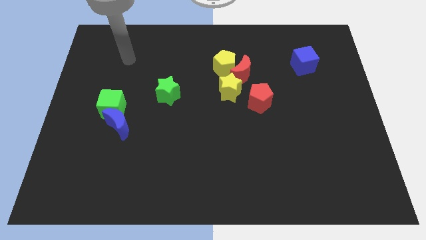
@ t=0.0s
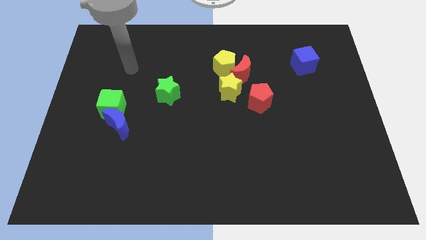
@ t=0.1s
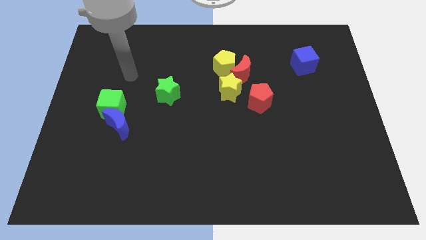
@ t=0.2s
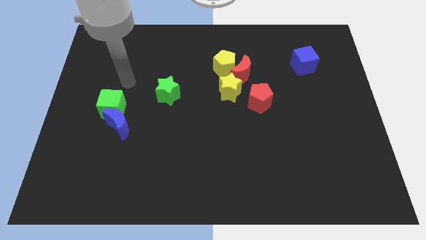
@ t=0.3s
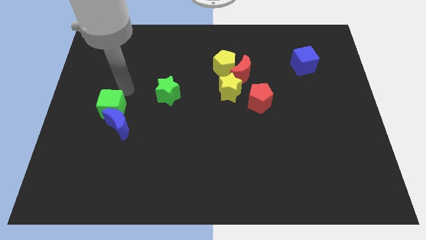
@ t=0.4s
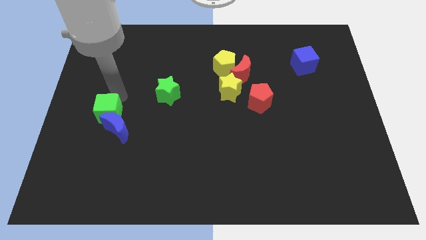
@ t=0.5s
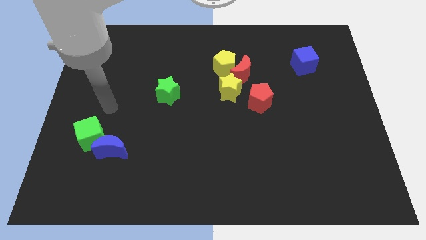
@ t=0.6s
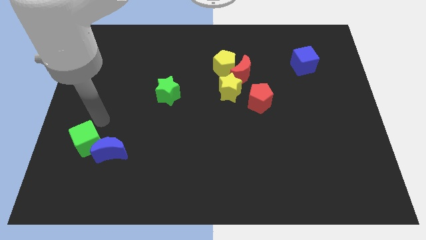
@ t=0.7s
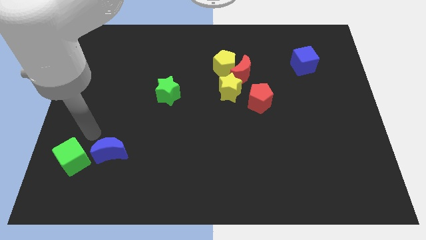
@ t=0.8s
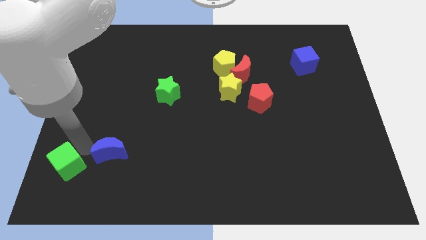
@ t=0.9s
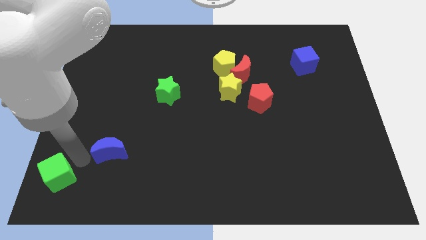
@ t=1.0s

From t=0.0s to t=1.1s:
separate the blue moon from the green cube

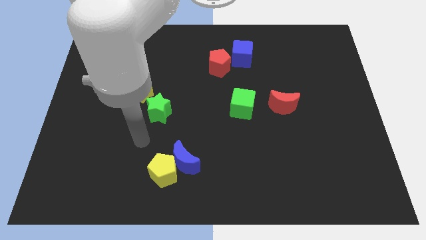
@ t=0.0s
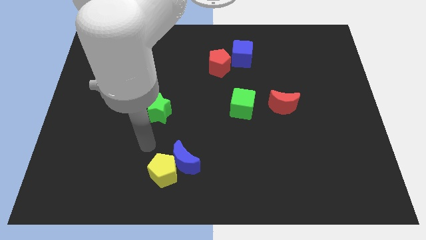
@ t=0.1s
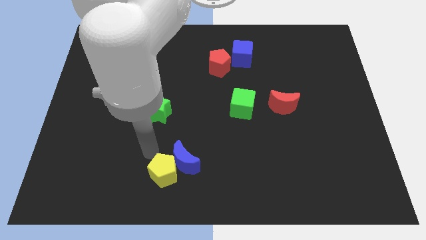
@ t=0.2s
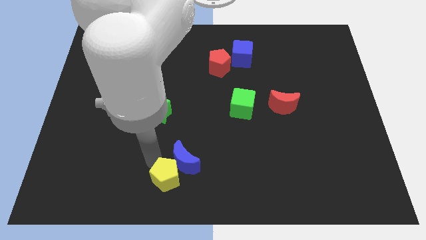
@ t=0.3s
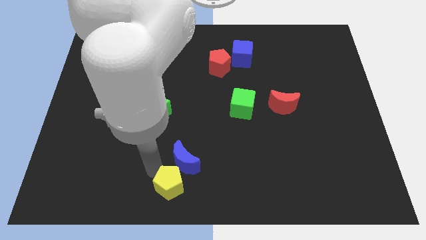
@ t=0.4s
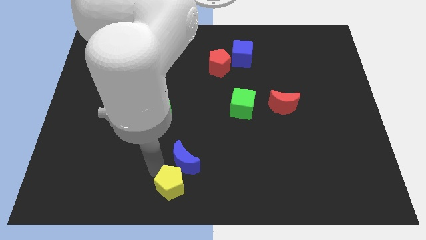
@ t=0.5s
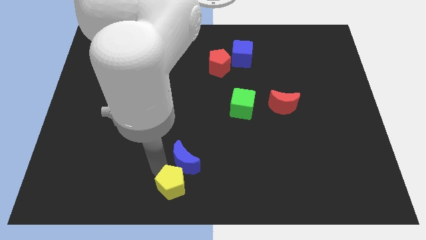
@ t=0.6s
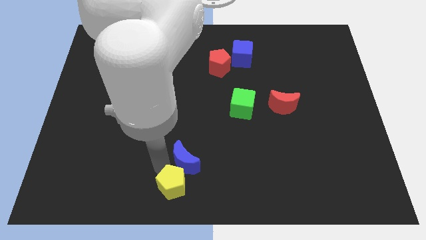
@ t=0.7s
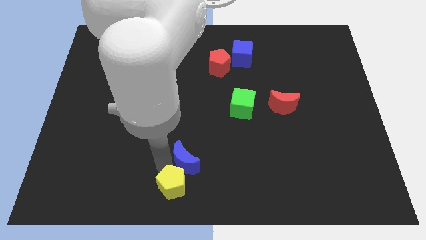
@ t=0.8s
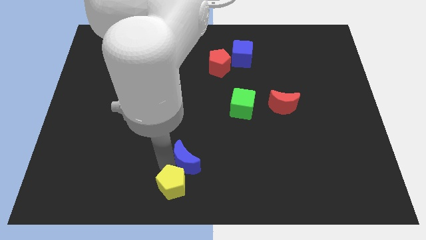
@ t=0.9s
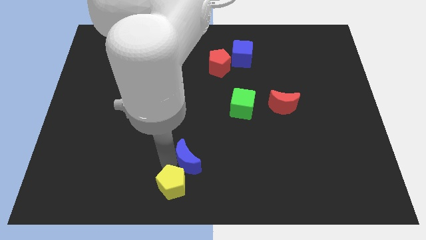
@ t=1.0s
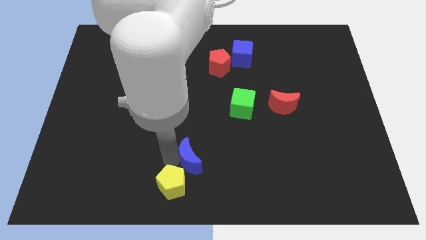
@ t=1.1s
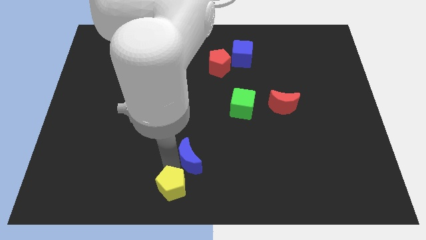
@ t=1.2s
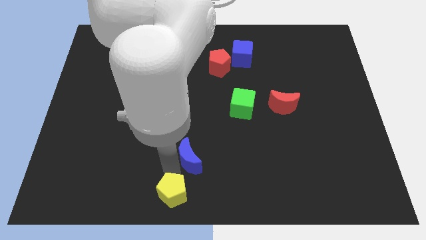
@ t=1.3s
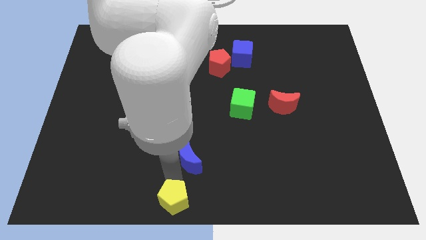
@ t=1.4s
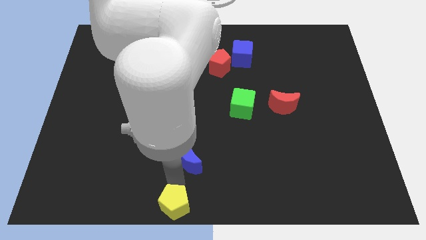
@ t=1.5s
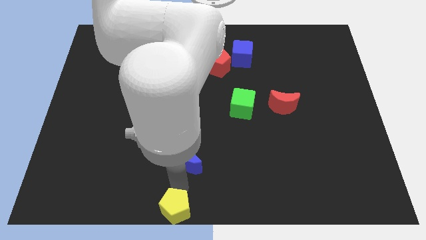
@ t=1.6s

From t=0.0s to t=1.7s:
move the blue moon away from the yellow pentagon

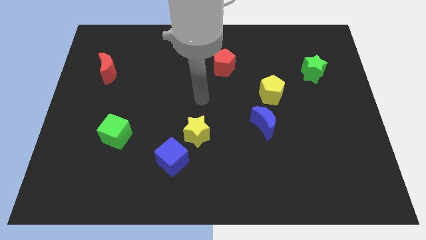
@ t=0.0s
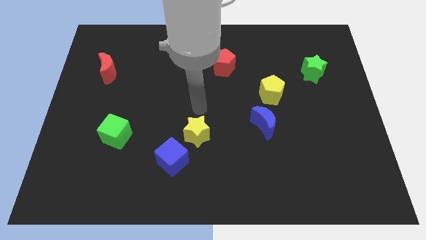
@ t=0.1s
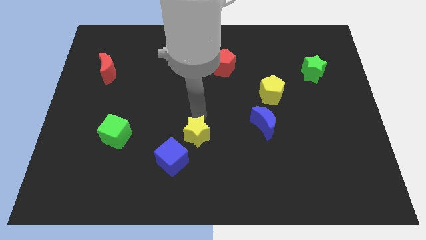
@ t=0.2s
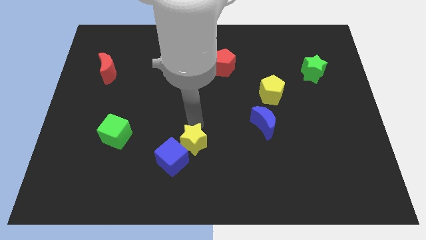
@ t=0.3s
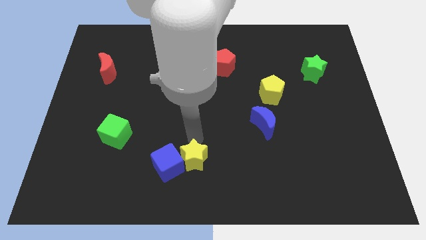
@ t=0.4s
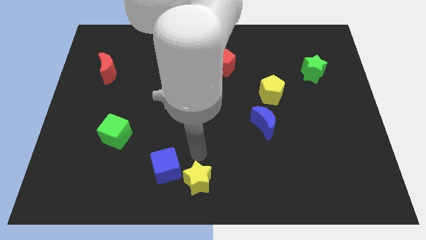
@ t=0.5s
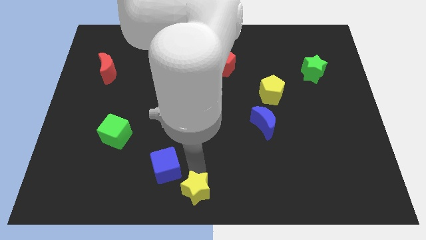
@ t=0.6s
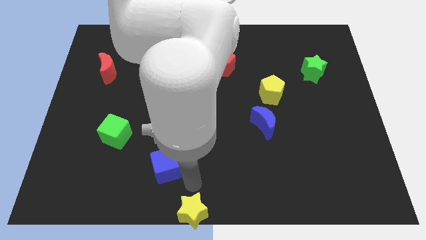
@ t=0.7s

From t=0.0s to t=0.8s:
pull the blue cube apart from the yellow star

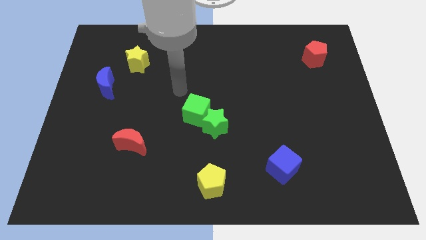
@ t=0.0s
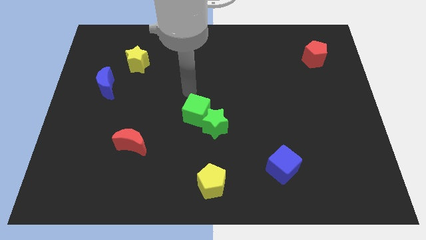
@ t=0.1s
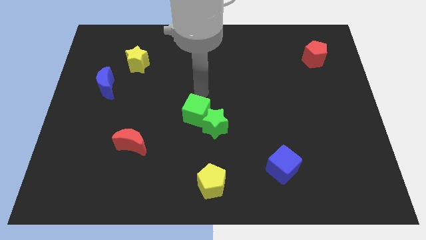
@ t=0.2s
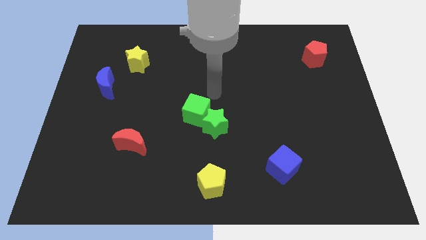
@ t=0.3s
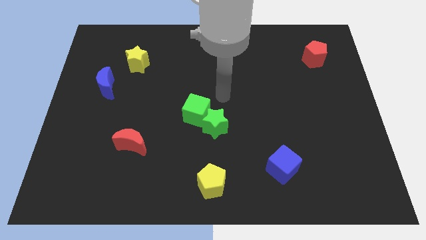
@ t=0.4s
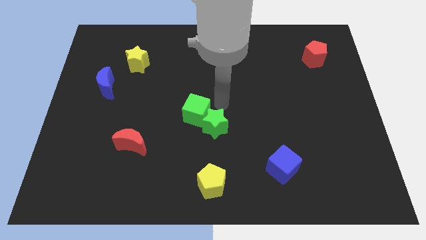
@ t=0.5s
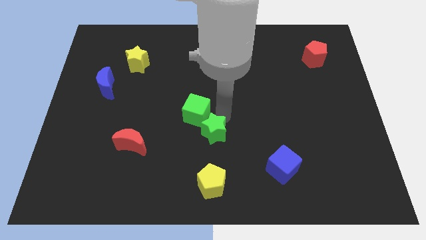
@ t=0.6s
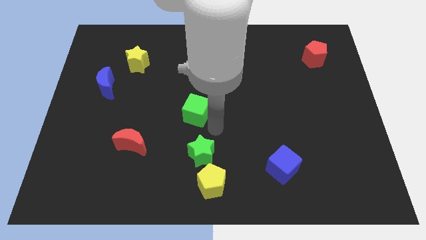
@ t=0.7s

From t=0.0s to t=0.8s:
move the green cube away from the green star

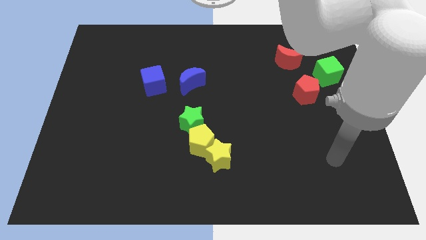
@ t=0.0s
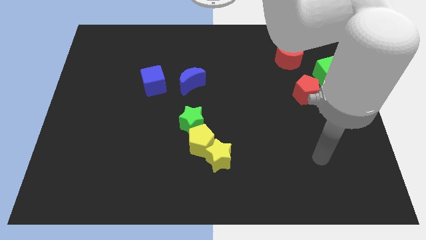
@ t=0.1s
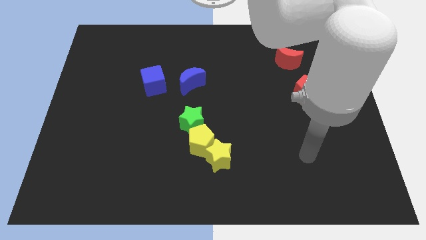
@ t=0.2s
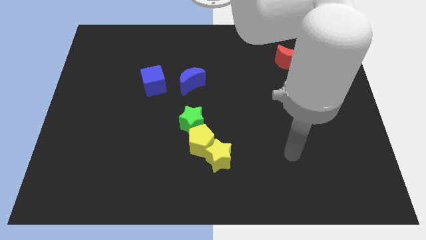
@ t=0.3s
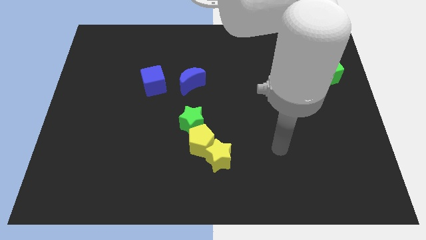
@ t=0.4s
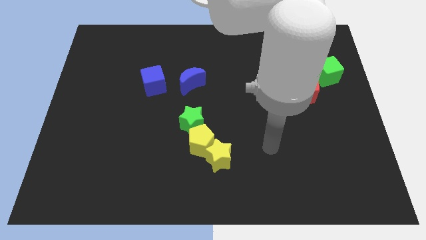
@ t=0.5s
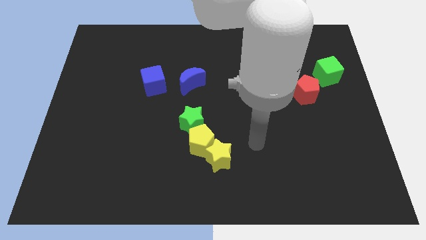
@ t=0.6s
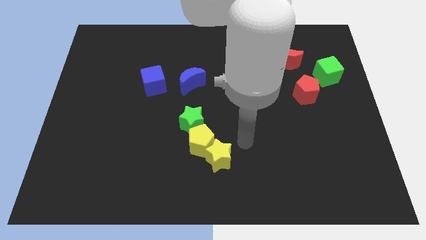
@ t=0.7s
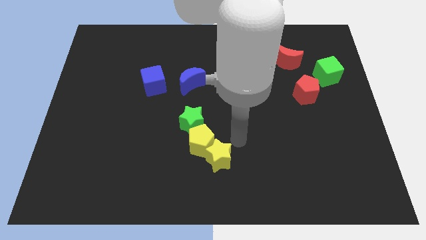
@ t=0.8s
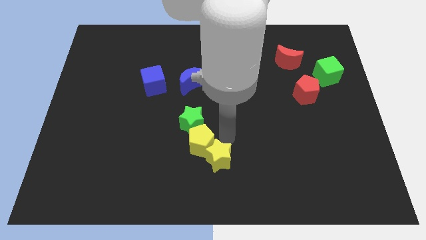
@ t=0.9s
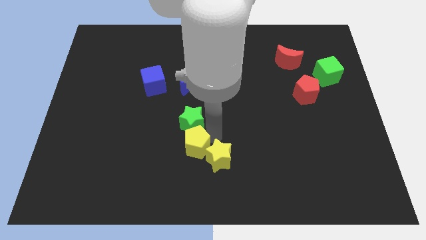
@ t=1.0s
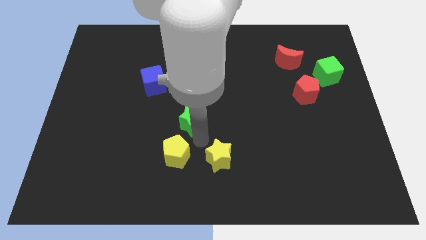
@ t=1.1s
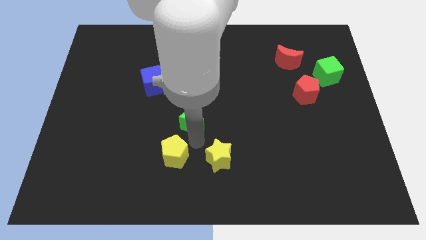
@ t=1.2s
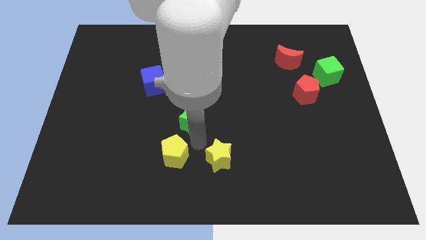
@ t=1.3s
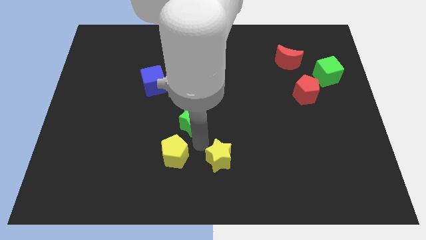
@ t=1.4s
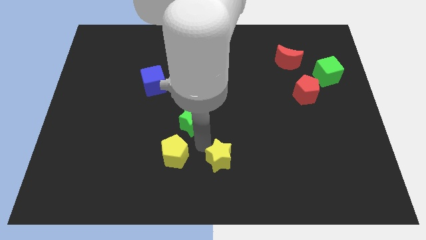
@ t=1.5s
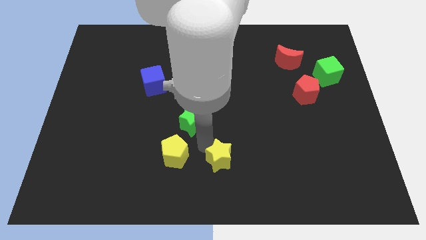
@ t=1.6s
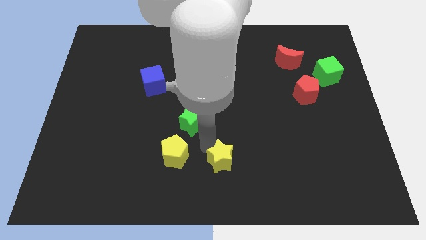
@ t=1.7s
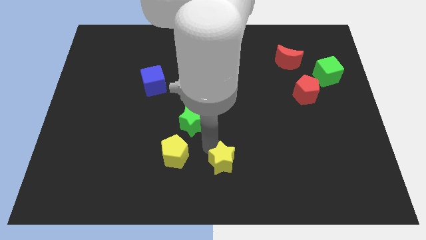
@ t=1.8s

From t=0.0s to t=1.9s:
pull the yellow star apart from the yellow pentagon

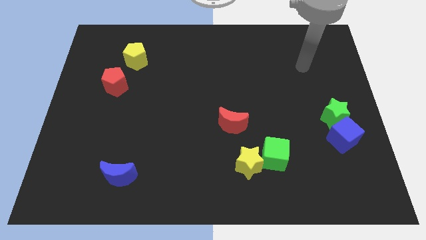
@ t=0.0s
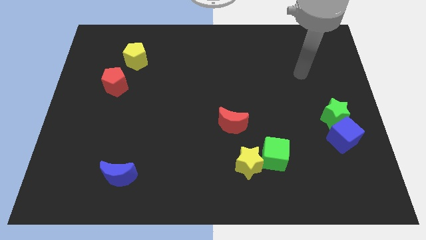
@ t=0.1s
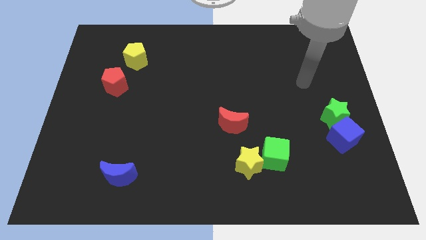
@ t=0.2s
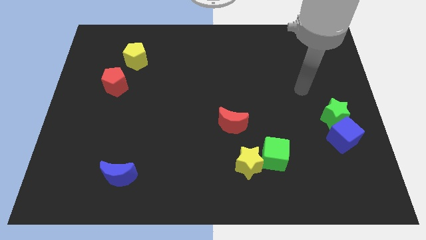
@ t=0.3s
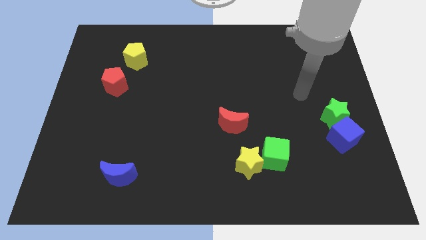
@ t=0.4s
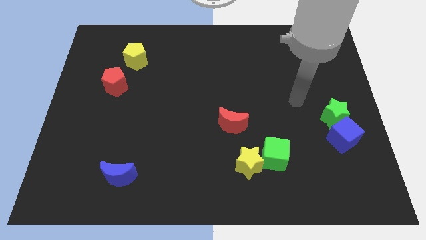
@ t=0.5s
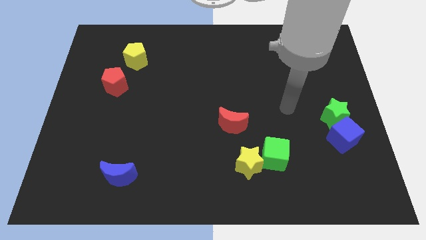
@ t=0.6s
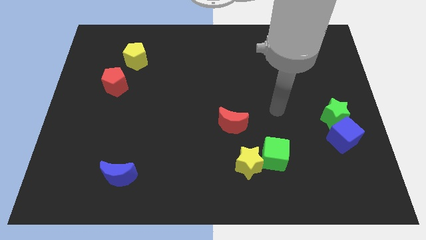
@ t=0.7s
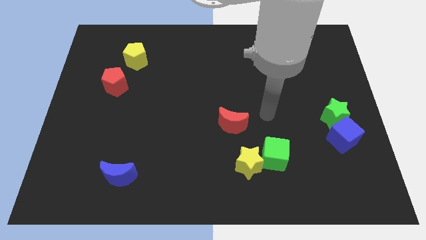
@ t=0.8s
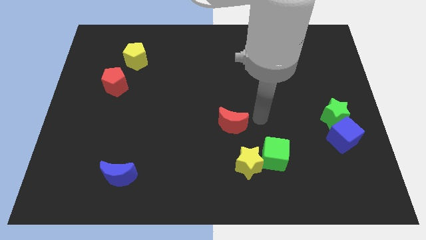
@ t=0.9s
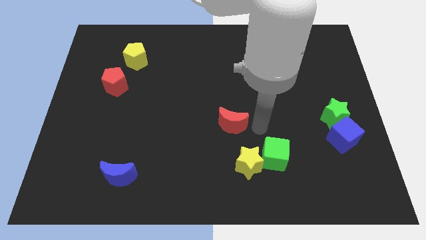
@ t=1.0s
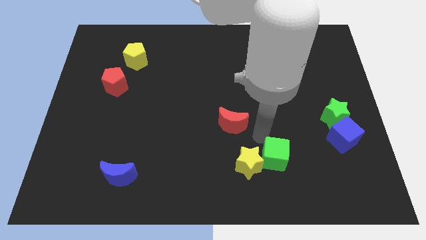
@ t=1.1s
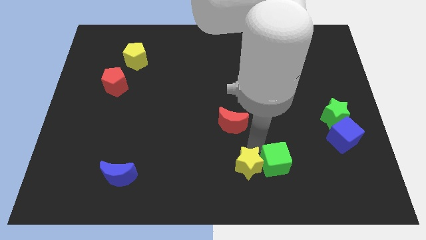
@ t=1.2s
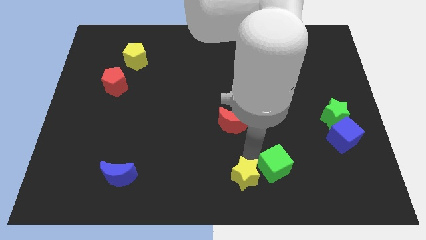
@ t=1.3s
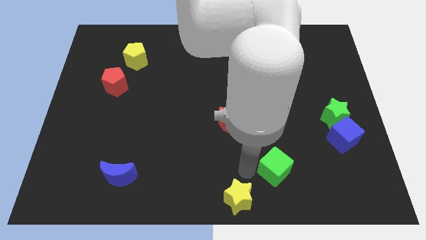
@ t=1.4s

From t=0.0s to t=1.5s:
separate the green cube from the yellow star

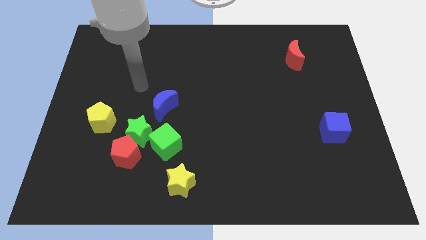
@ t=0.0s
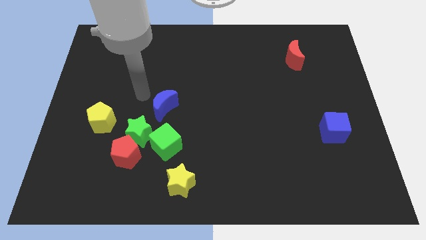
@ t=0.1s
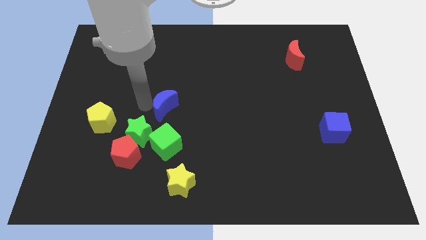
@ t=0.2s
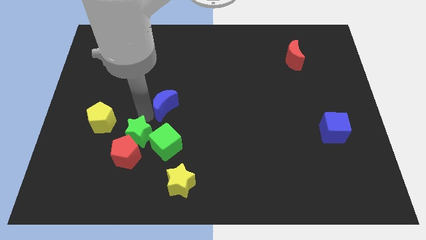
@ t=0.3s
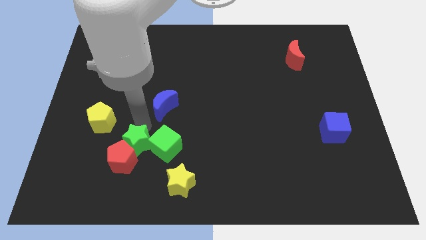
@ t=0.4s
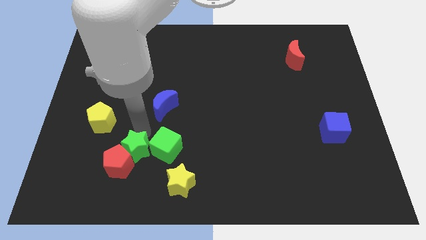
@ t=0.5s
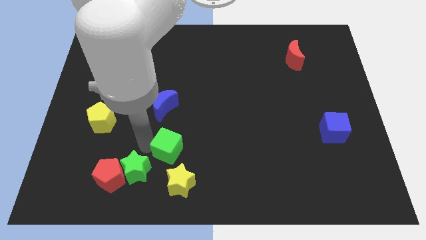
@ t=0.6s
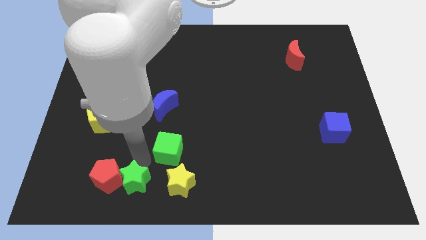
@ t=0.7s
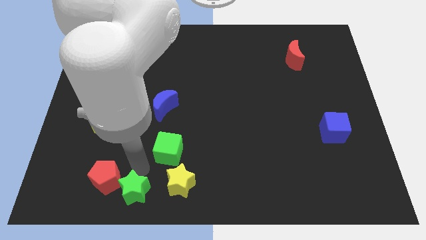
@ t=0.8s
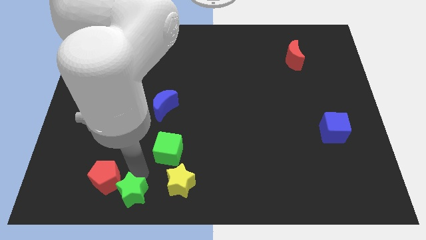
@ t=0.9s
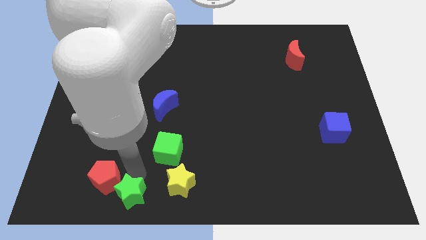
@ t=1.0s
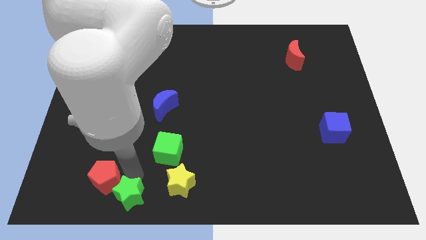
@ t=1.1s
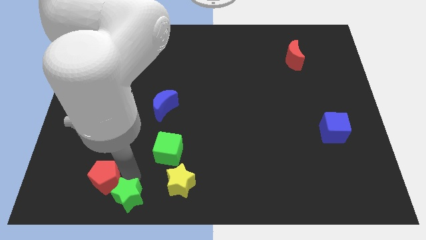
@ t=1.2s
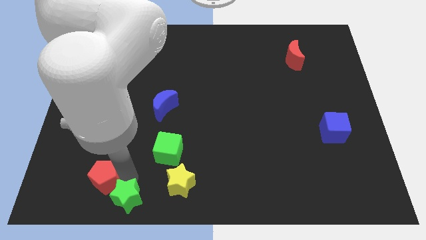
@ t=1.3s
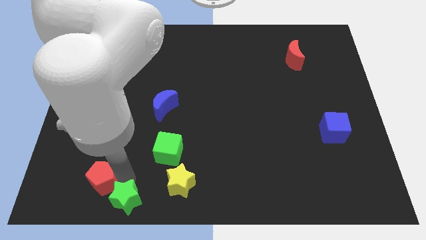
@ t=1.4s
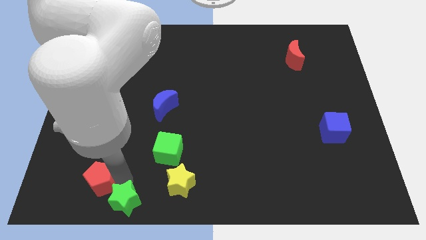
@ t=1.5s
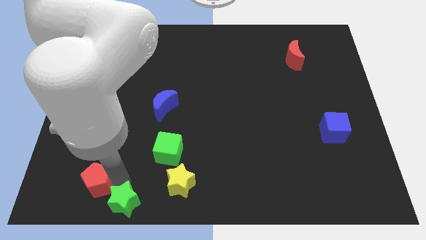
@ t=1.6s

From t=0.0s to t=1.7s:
move the red pentagon away from the green star and green cube
